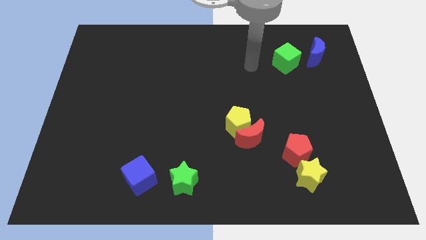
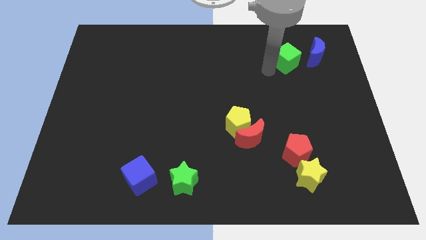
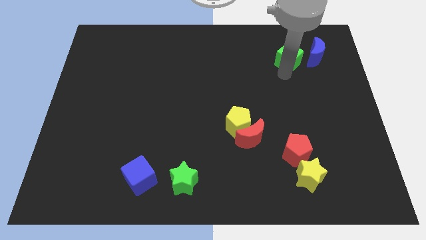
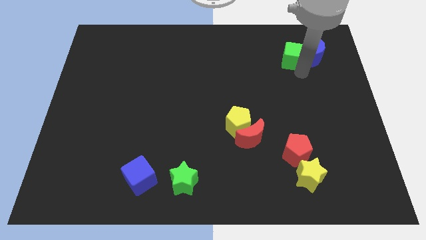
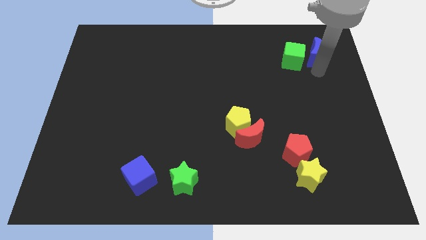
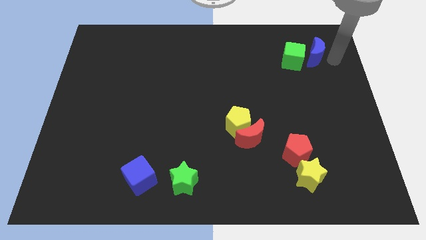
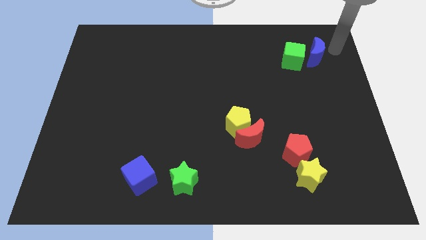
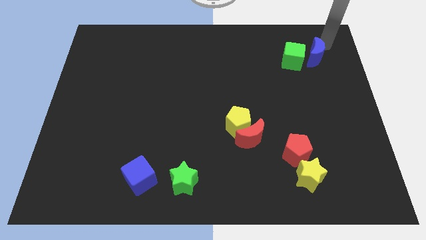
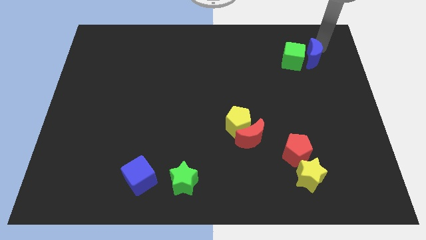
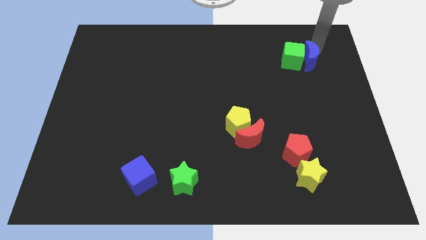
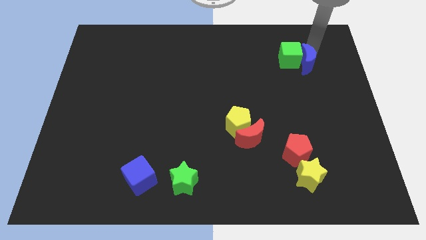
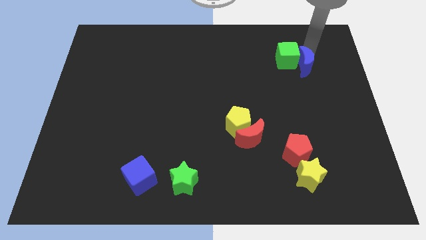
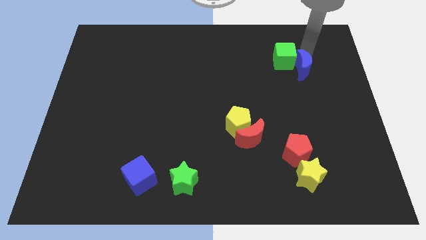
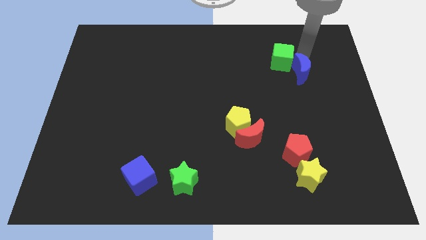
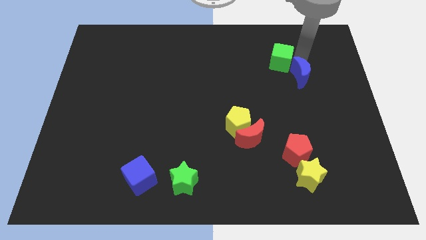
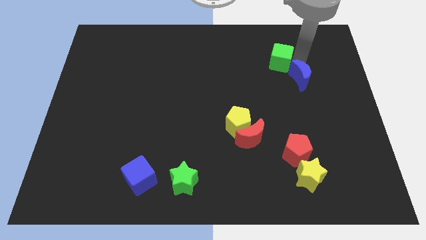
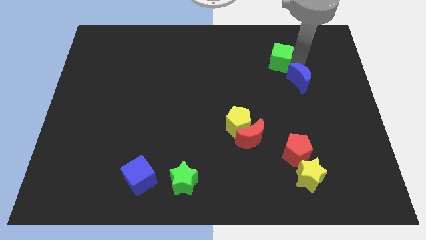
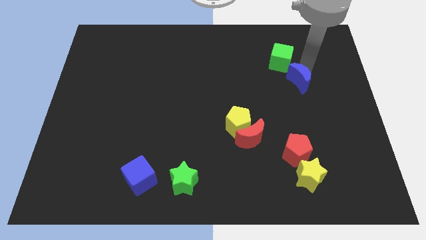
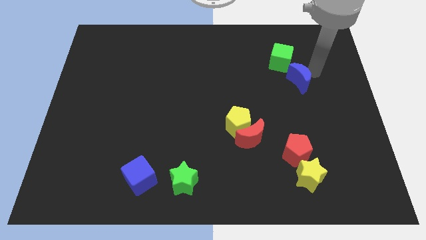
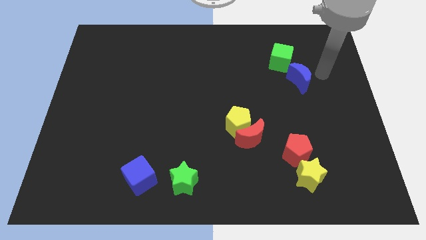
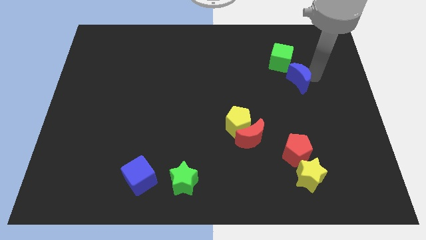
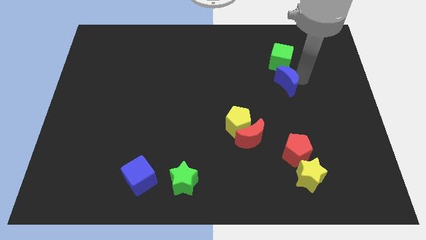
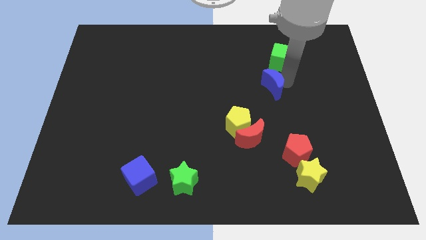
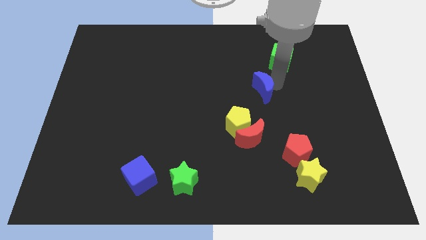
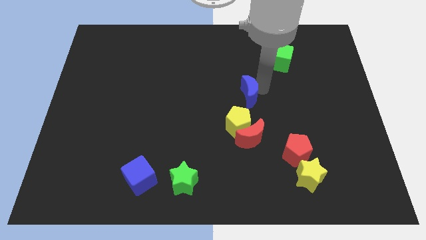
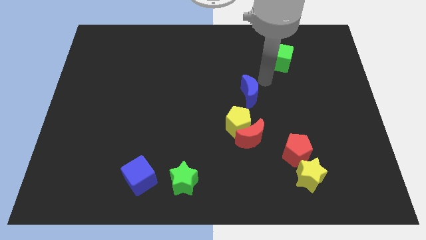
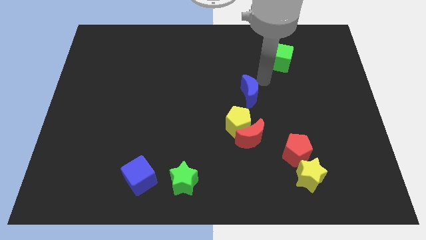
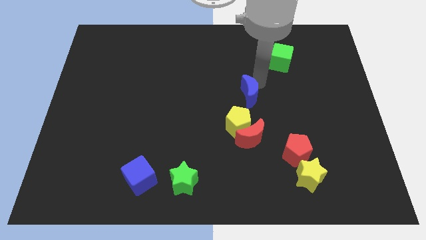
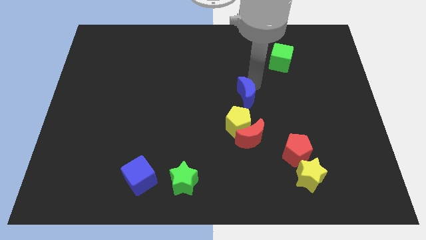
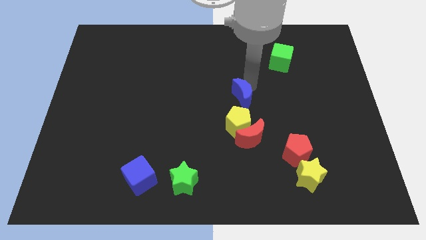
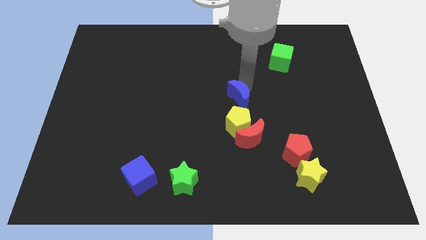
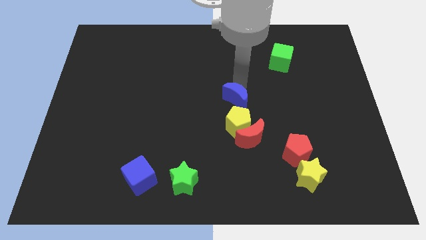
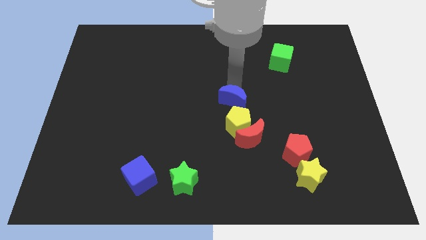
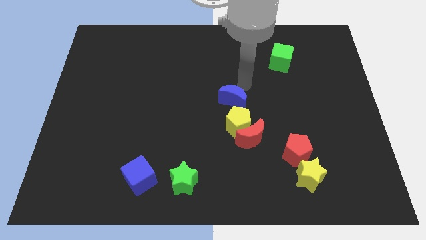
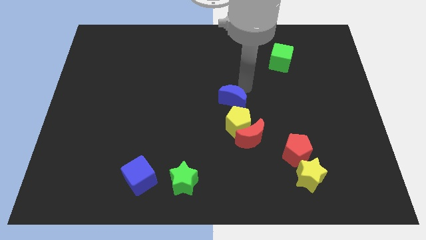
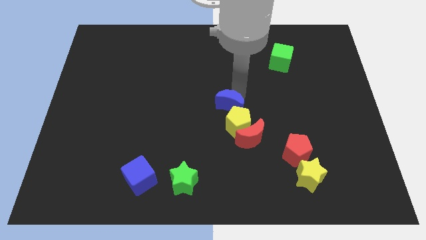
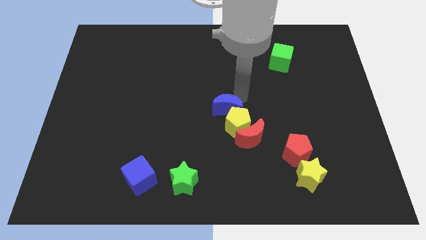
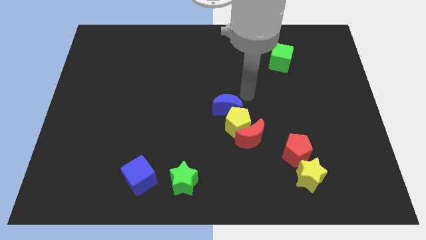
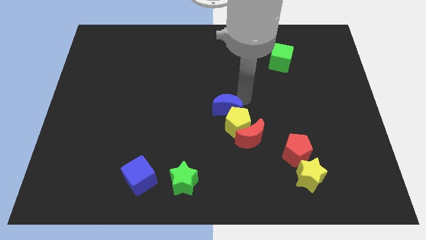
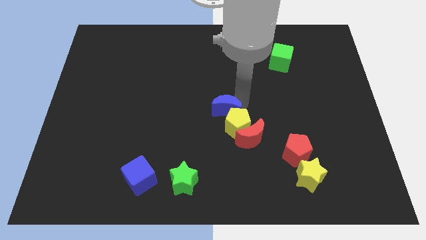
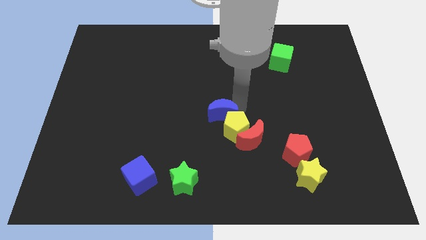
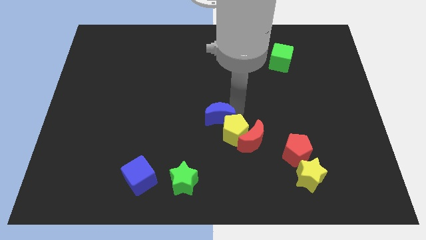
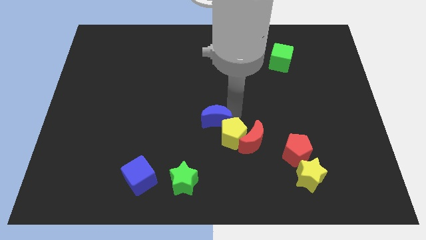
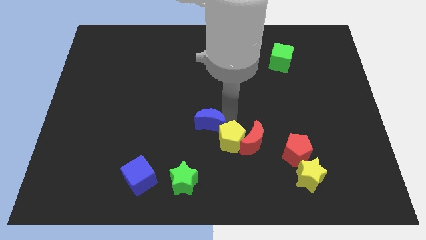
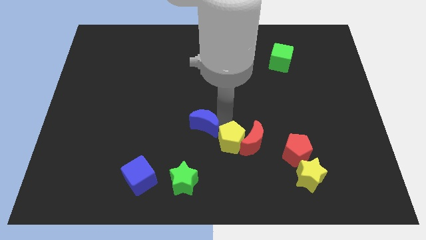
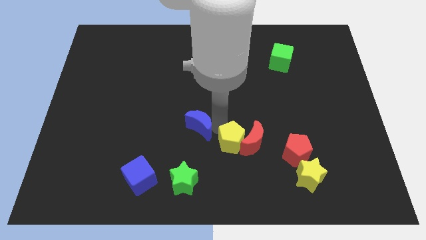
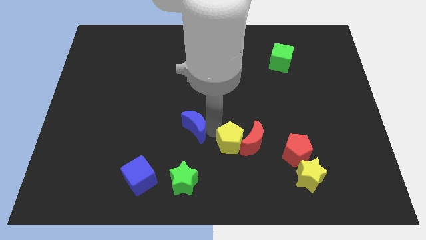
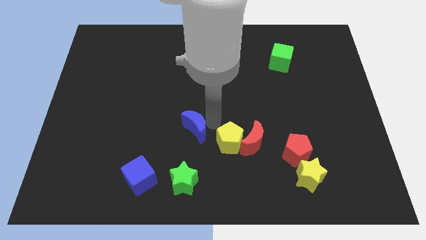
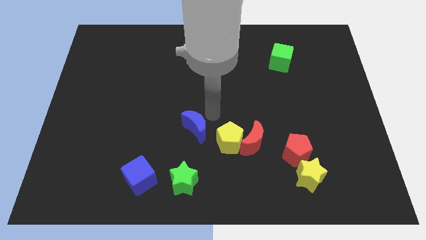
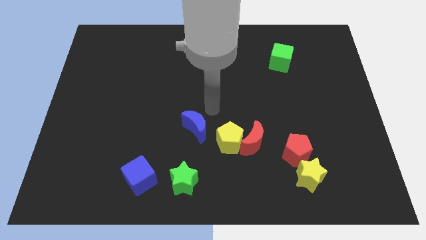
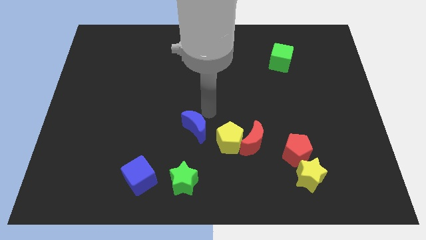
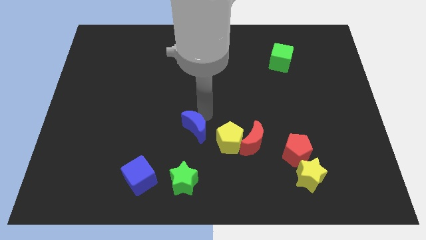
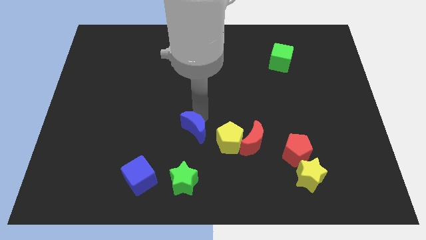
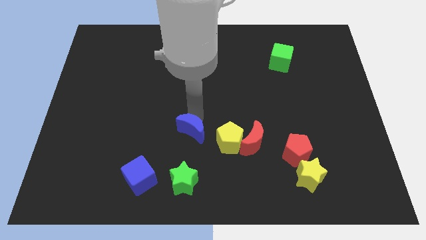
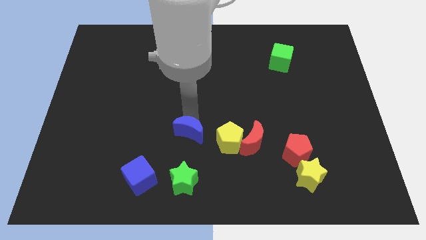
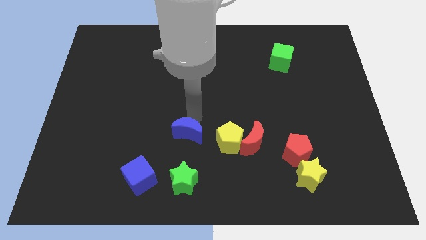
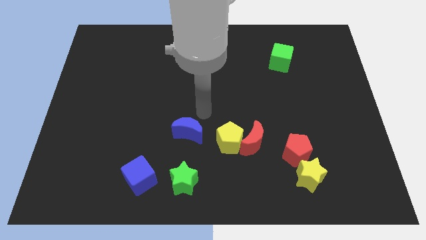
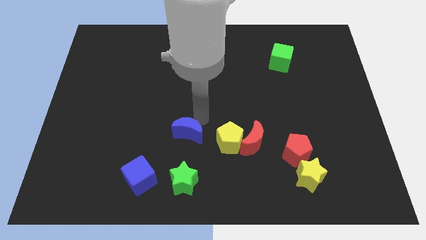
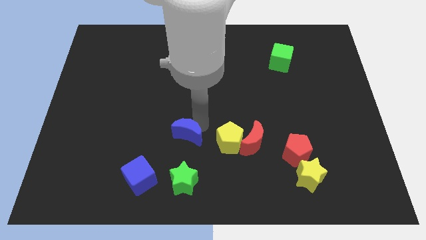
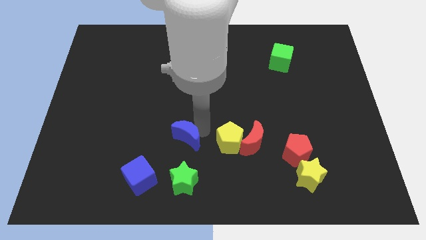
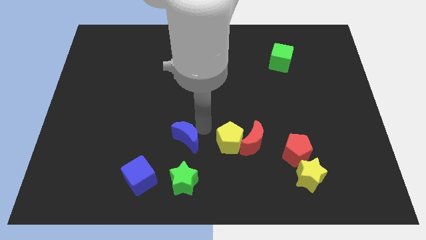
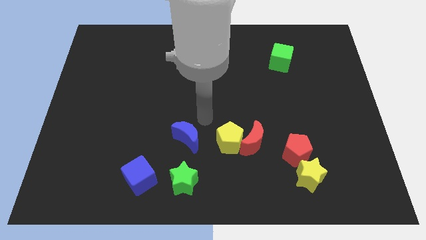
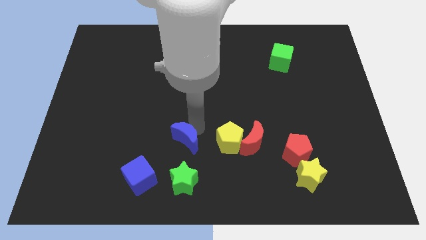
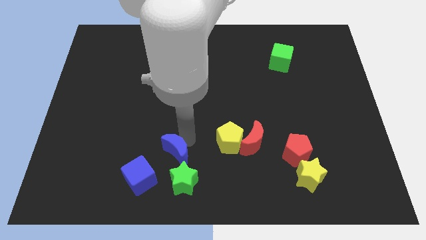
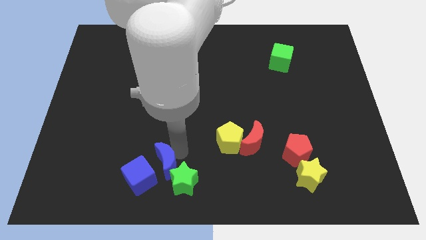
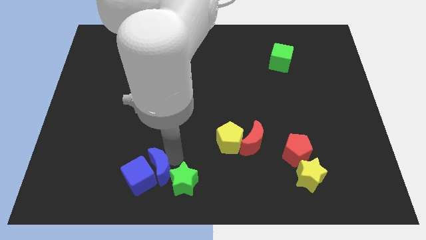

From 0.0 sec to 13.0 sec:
slide the blue moon close to the blue cube

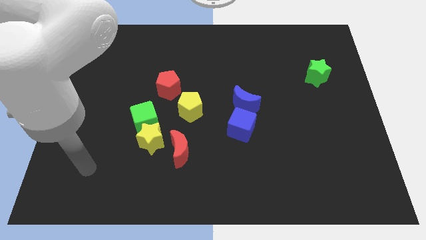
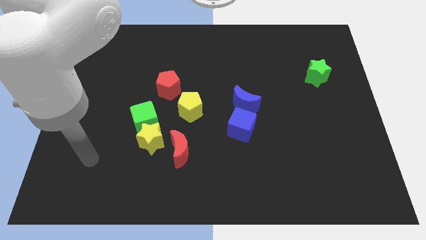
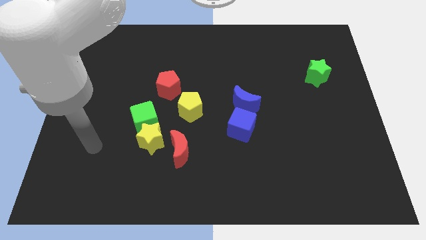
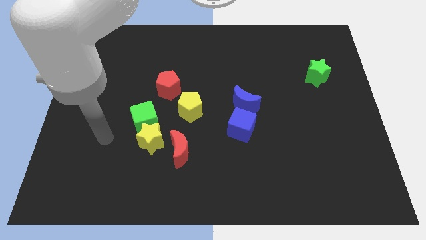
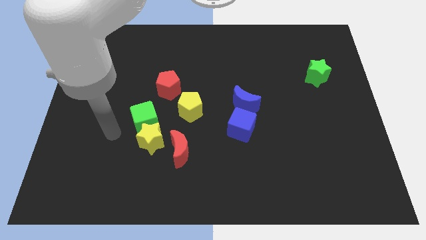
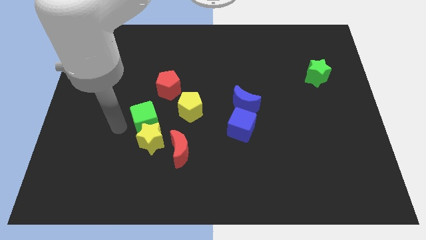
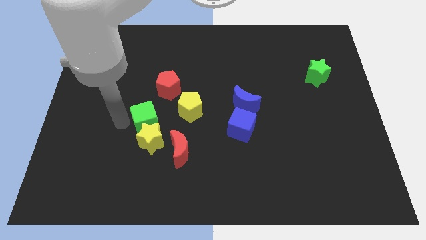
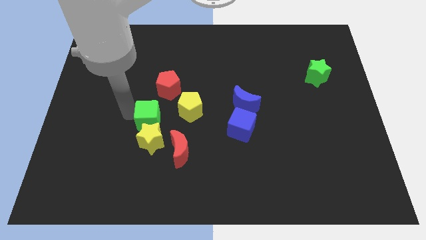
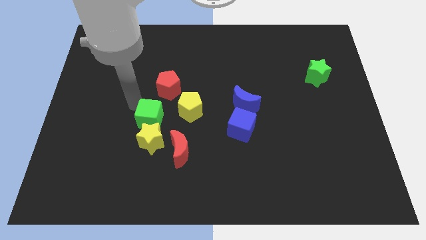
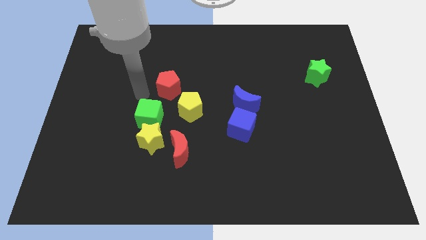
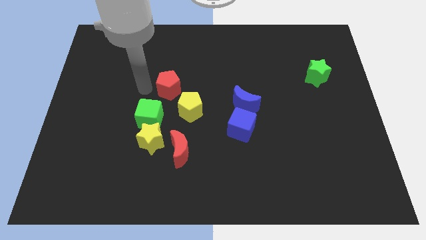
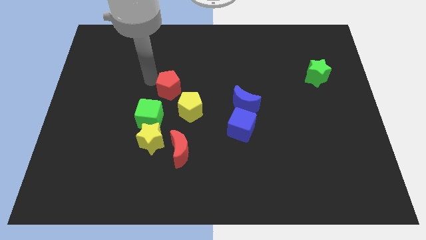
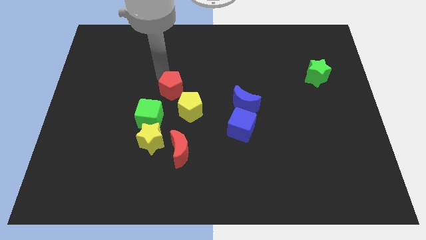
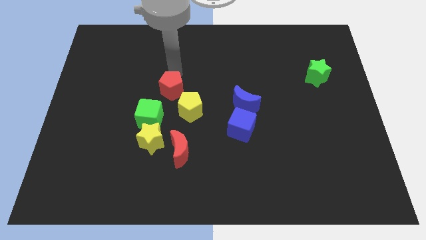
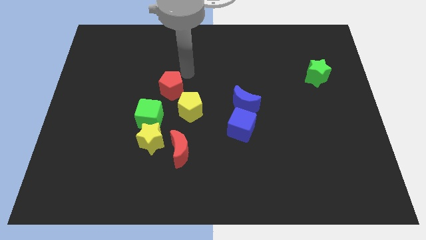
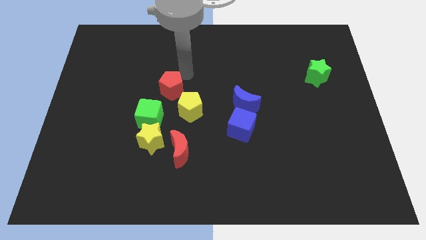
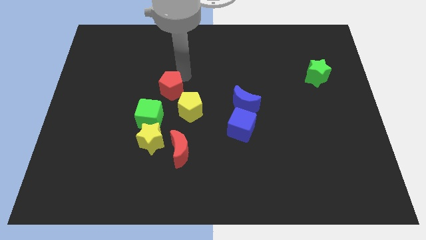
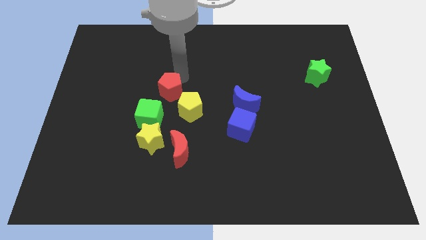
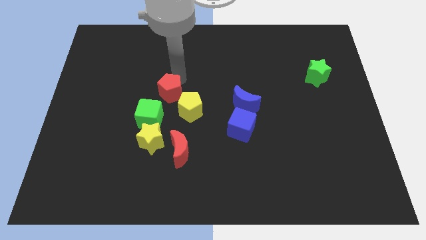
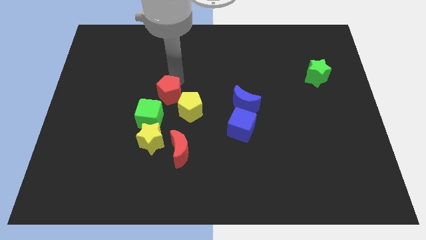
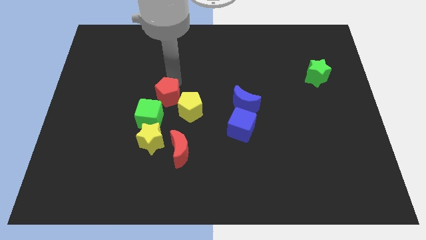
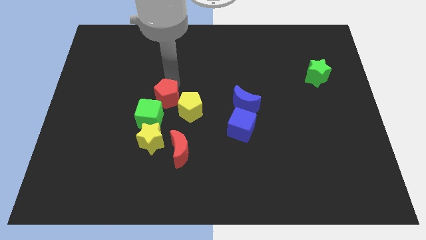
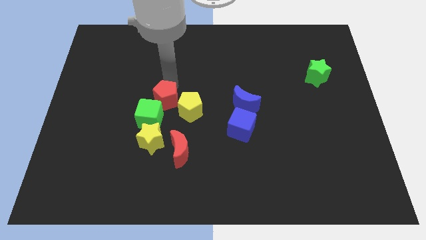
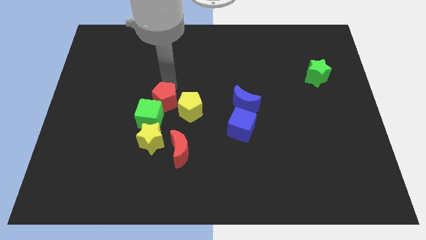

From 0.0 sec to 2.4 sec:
put the red pentagon towards the green cube
